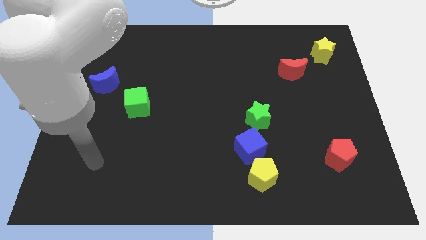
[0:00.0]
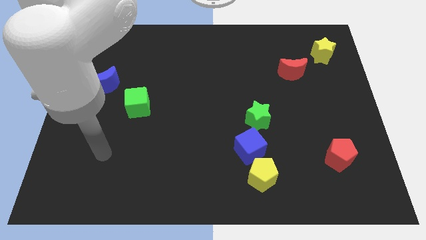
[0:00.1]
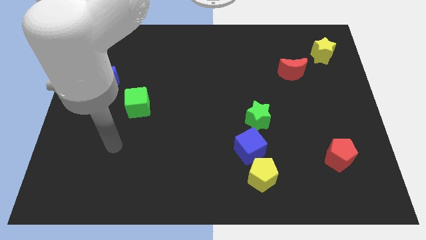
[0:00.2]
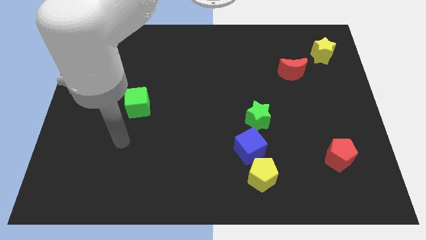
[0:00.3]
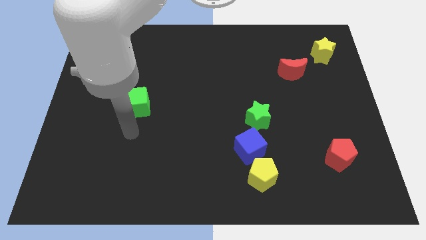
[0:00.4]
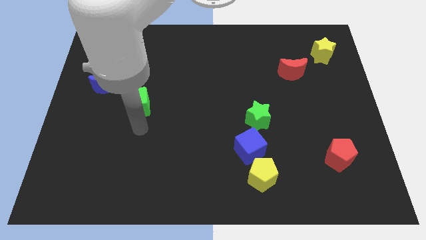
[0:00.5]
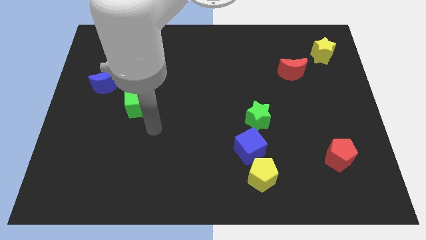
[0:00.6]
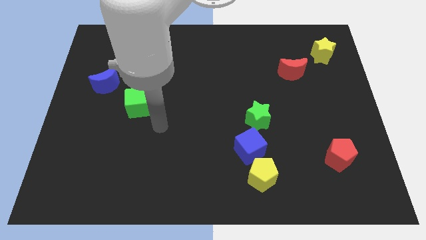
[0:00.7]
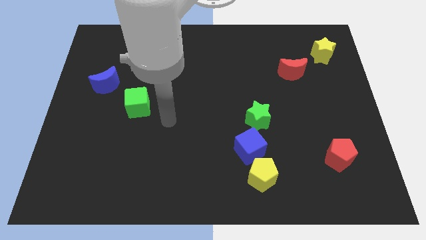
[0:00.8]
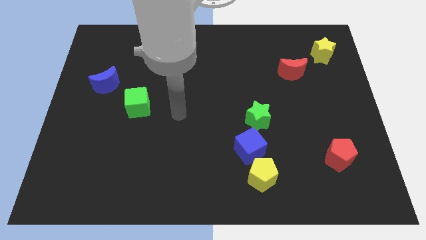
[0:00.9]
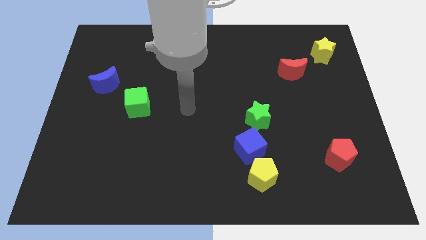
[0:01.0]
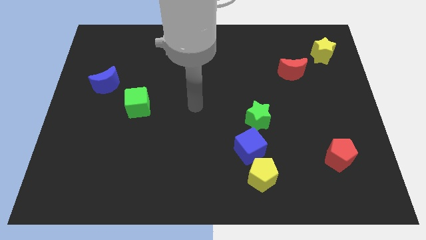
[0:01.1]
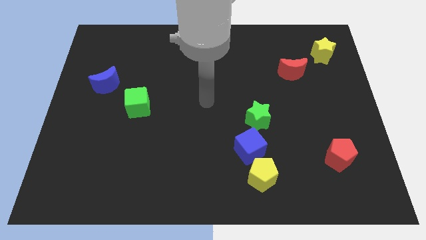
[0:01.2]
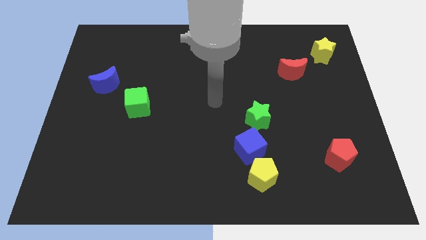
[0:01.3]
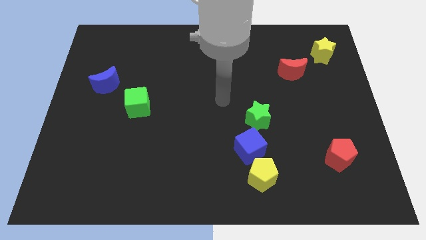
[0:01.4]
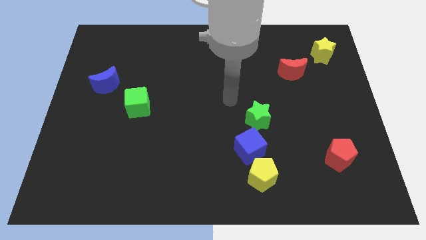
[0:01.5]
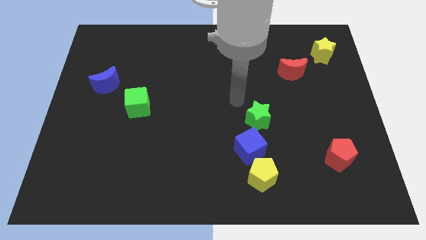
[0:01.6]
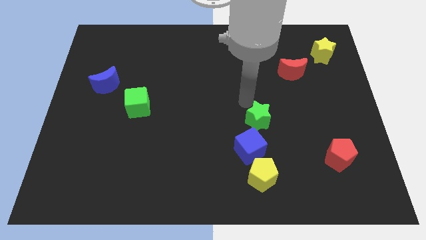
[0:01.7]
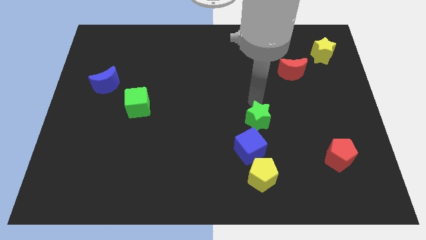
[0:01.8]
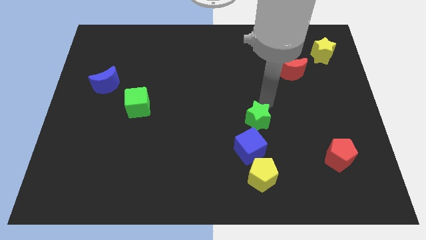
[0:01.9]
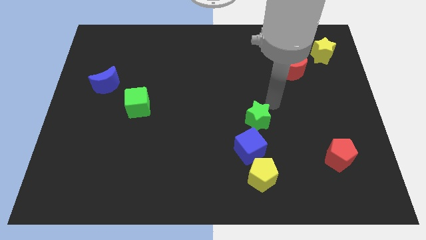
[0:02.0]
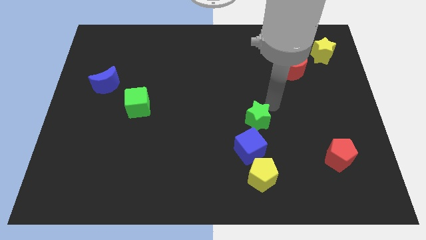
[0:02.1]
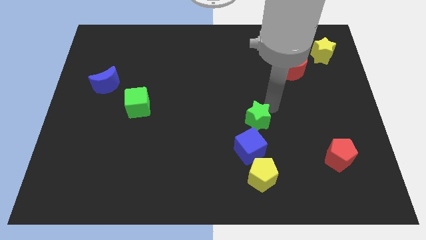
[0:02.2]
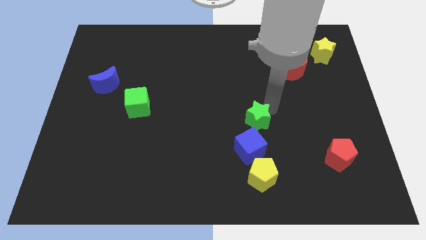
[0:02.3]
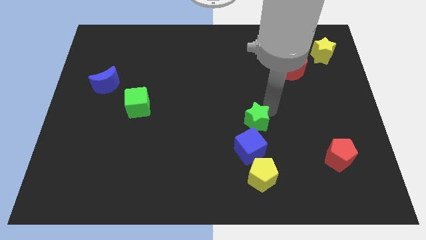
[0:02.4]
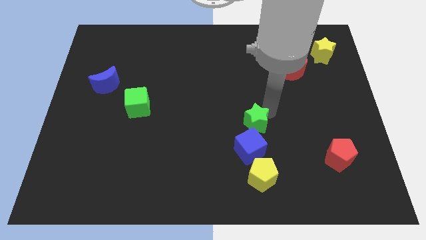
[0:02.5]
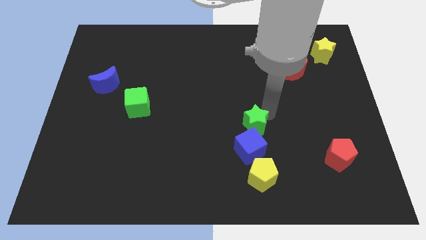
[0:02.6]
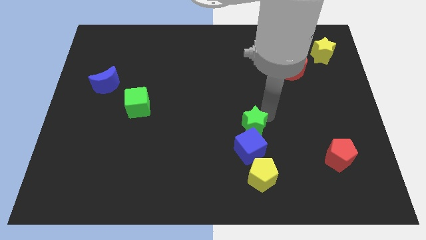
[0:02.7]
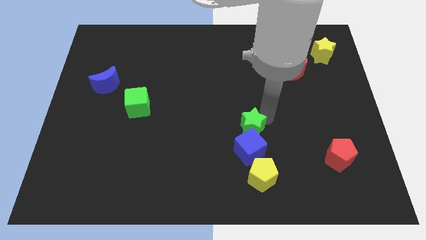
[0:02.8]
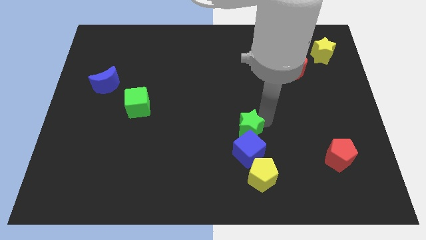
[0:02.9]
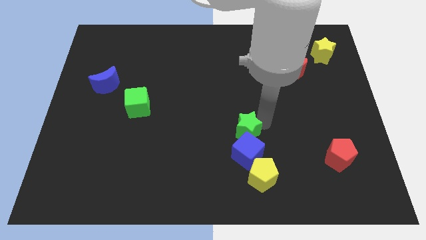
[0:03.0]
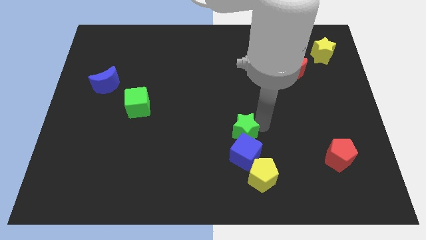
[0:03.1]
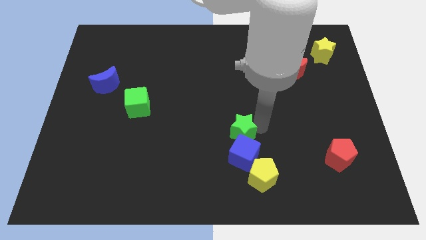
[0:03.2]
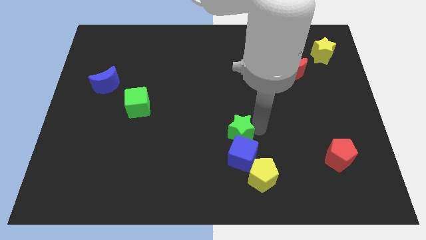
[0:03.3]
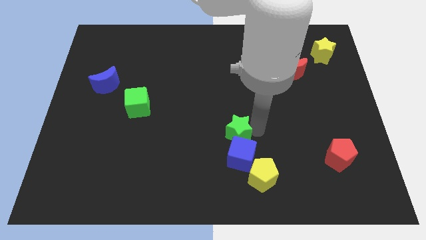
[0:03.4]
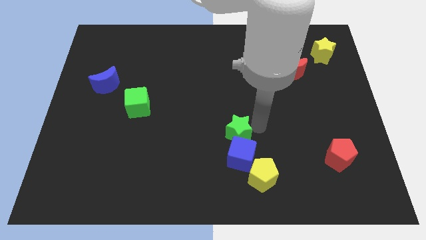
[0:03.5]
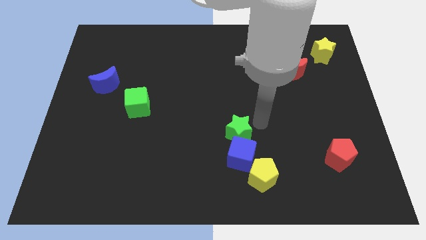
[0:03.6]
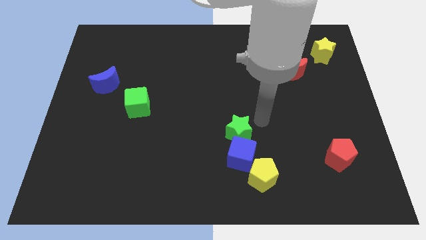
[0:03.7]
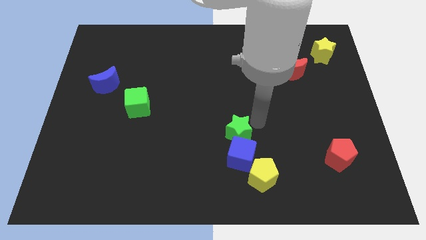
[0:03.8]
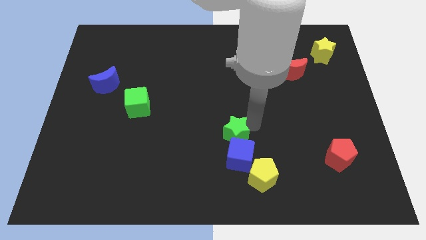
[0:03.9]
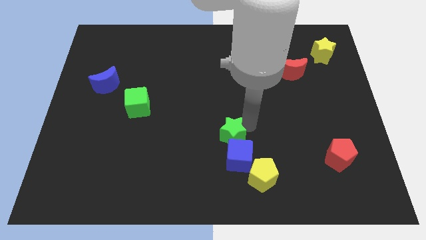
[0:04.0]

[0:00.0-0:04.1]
slide the green star down and to the left diagonally somewhat

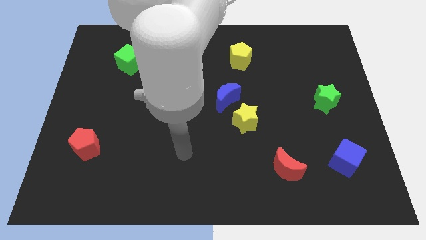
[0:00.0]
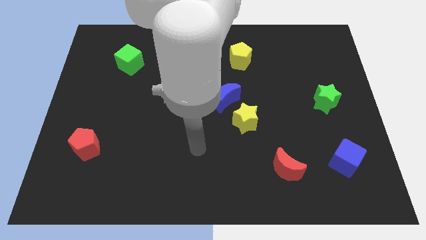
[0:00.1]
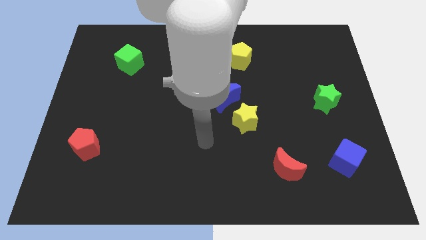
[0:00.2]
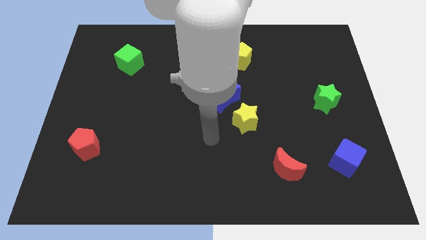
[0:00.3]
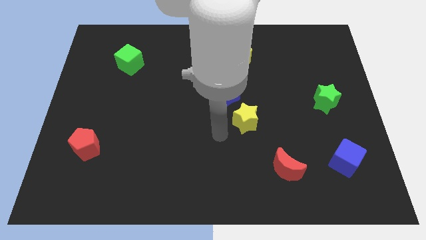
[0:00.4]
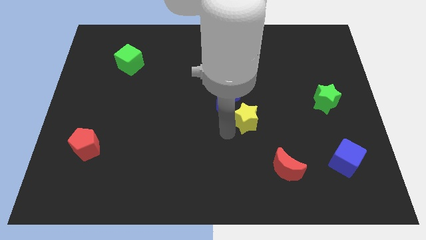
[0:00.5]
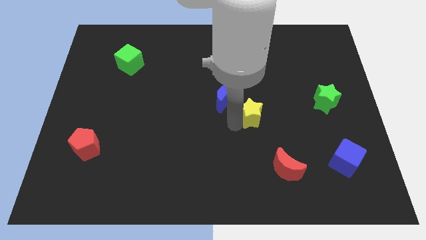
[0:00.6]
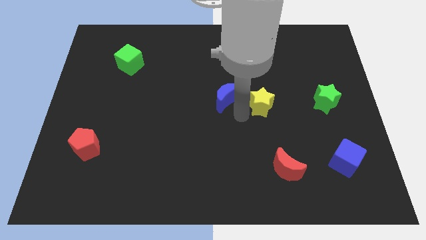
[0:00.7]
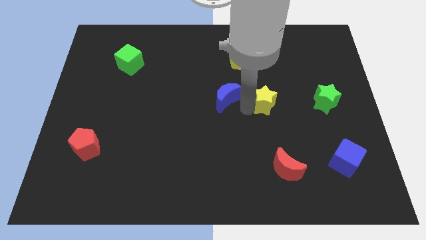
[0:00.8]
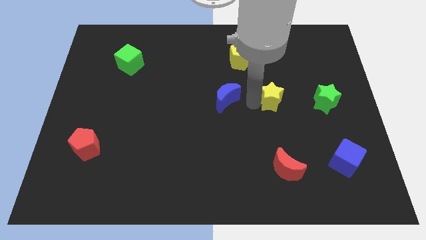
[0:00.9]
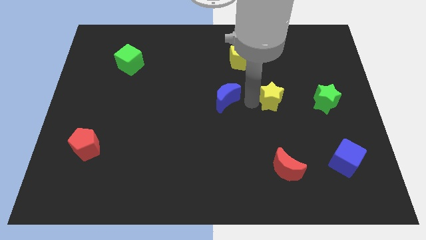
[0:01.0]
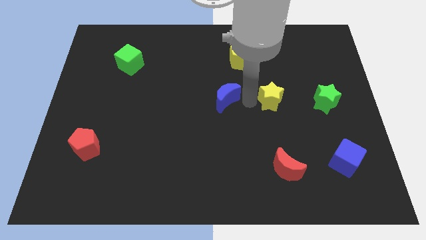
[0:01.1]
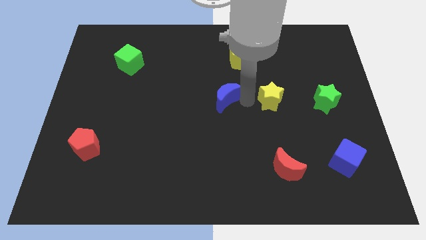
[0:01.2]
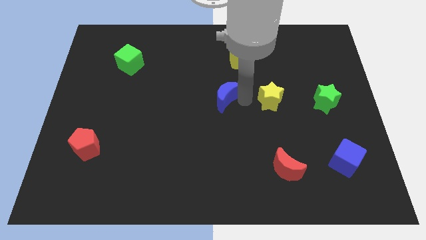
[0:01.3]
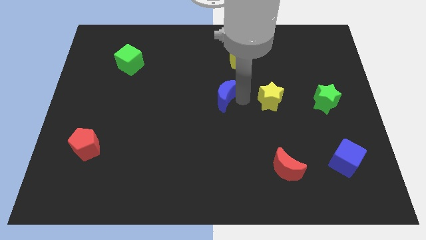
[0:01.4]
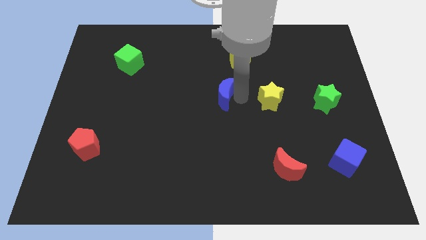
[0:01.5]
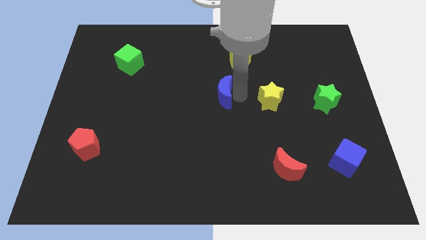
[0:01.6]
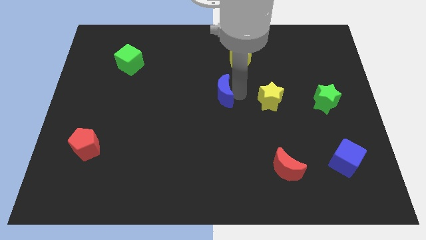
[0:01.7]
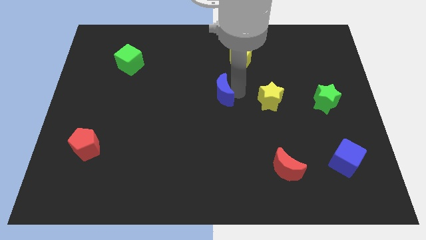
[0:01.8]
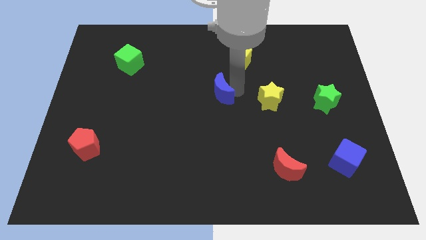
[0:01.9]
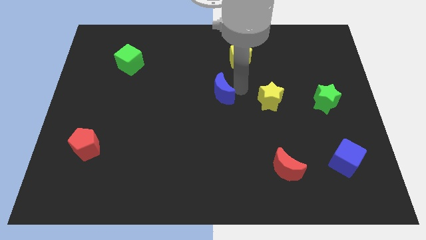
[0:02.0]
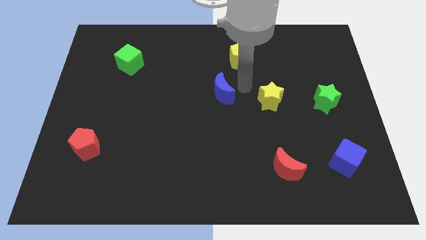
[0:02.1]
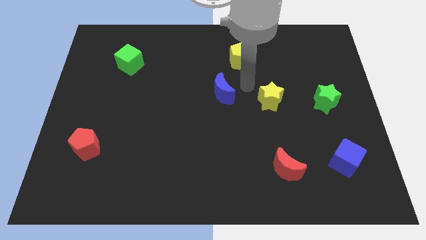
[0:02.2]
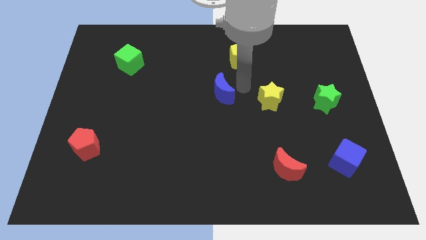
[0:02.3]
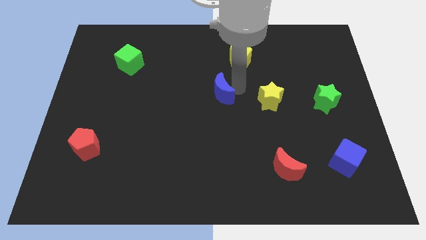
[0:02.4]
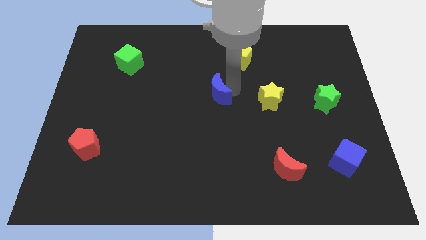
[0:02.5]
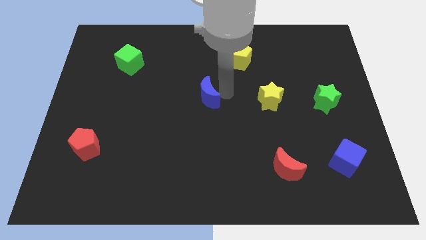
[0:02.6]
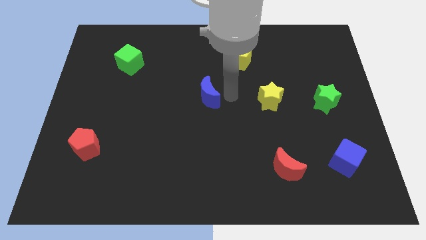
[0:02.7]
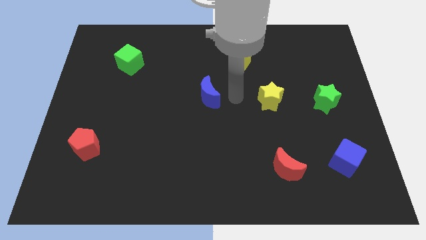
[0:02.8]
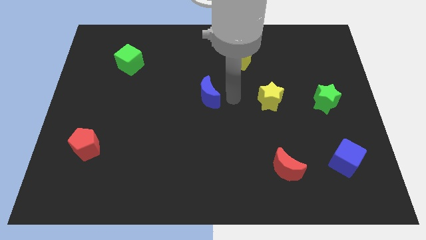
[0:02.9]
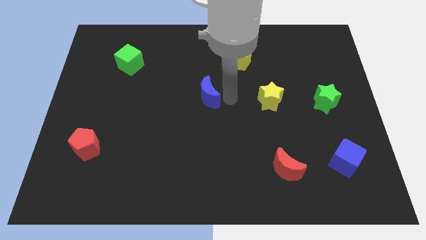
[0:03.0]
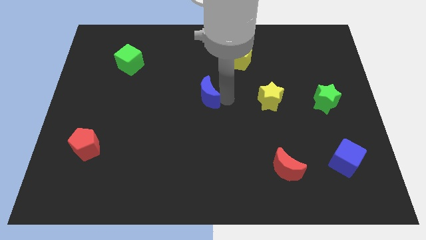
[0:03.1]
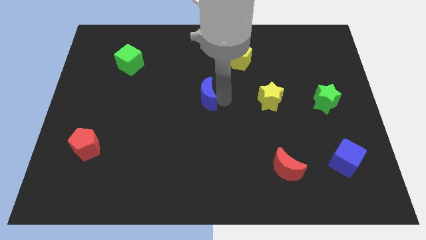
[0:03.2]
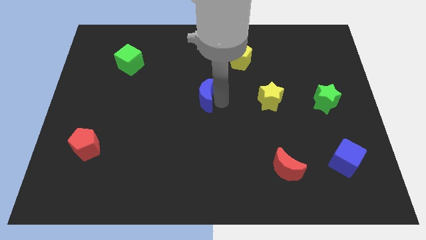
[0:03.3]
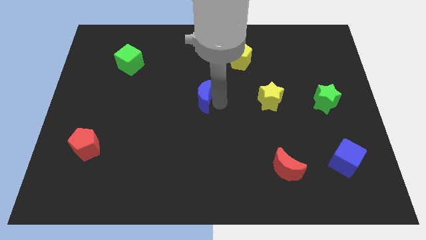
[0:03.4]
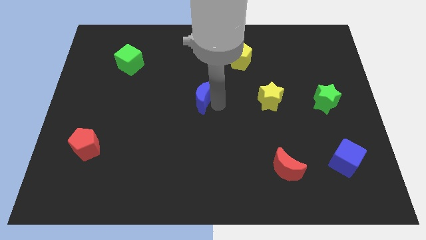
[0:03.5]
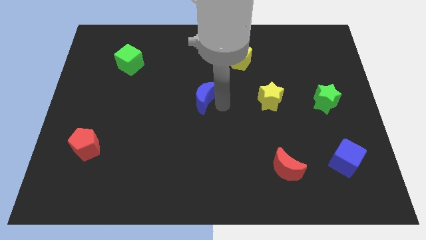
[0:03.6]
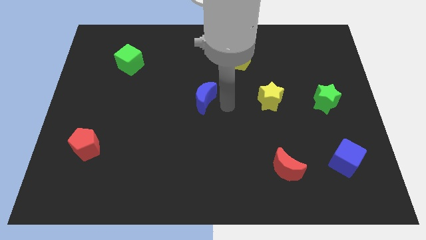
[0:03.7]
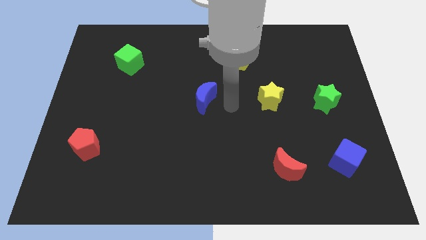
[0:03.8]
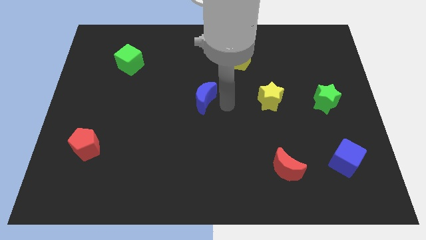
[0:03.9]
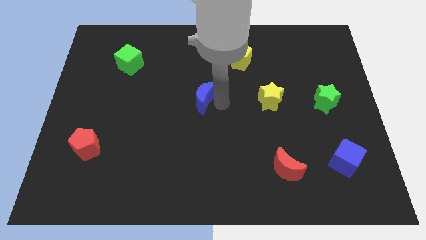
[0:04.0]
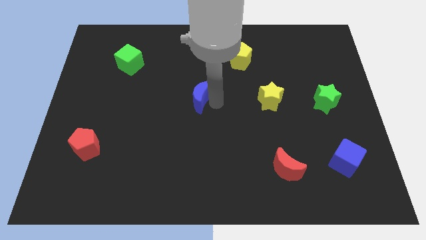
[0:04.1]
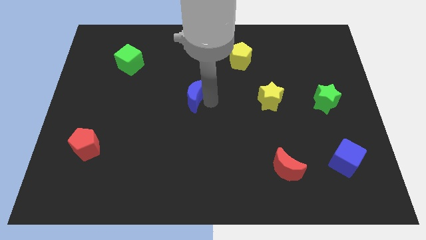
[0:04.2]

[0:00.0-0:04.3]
slide the blue moon left somewhat
